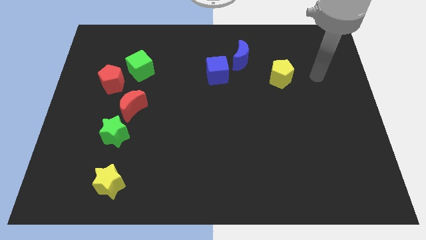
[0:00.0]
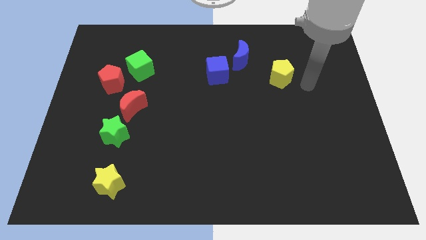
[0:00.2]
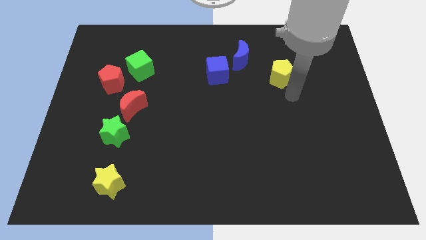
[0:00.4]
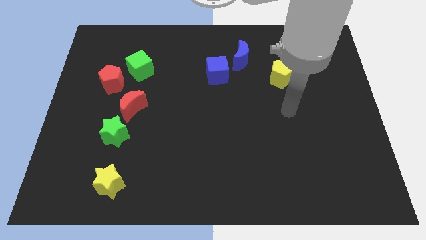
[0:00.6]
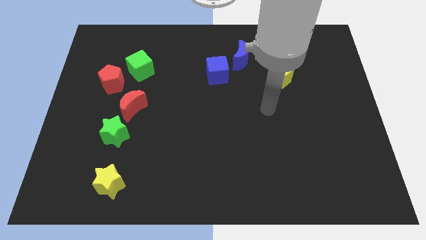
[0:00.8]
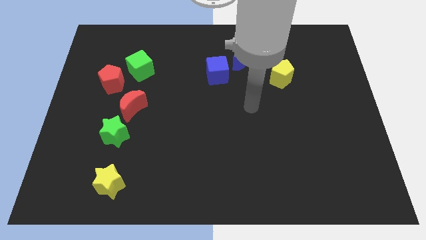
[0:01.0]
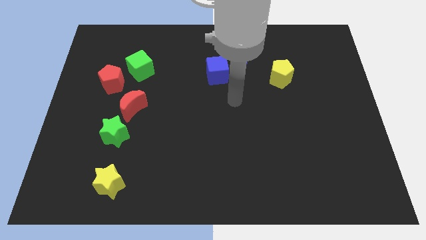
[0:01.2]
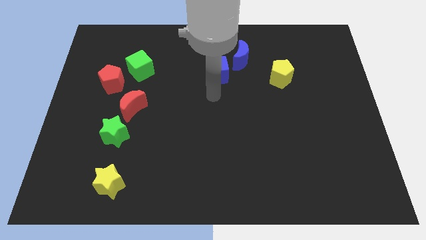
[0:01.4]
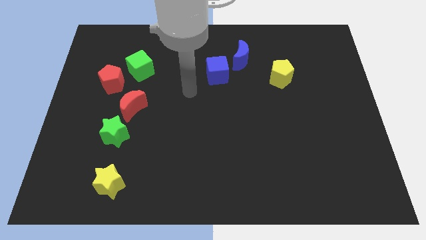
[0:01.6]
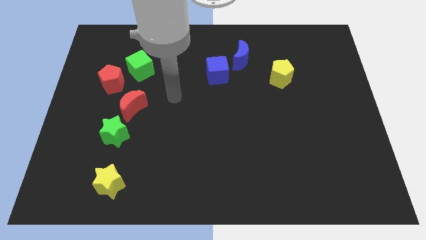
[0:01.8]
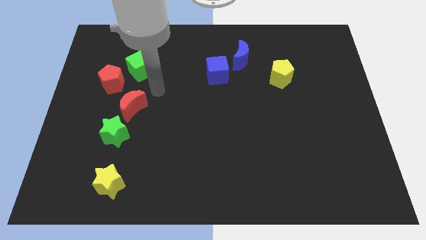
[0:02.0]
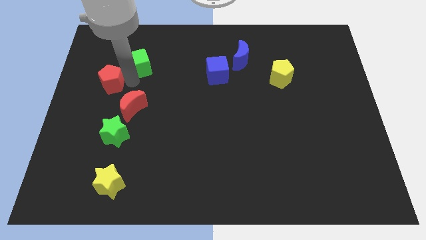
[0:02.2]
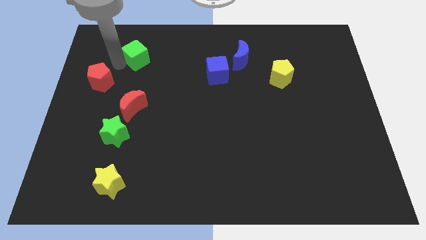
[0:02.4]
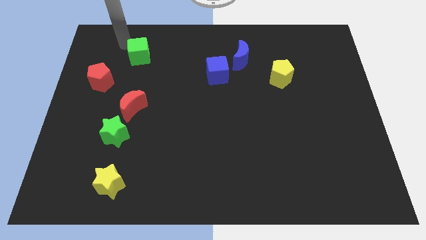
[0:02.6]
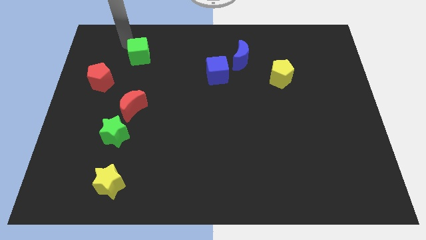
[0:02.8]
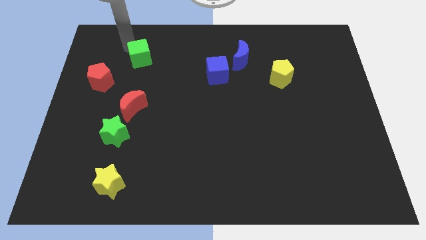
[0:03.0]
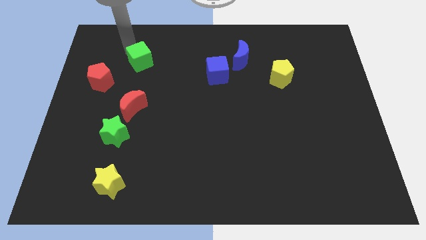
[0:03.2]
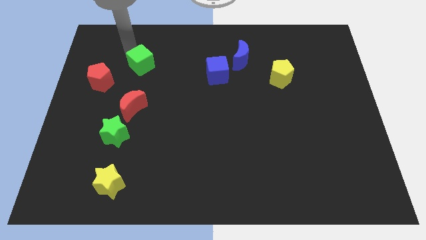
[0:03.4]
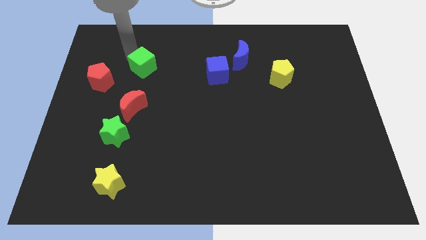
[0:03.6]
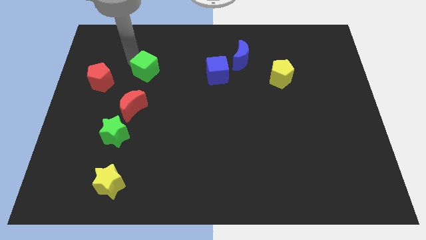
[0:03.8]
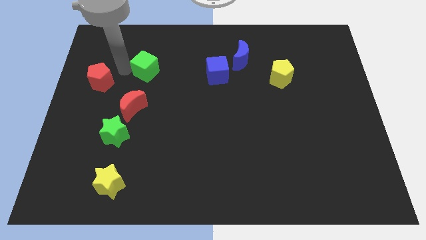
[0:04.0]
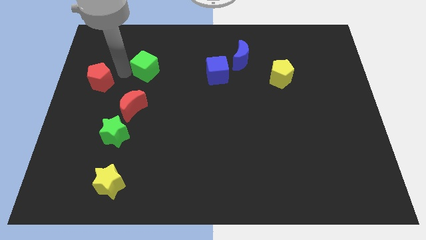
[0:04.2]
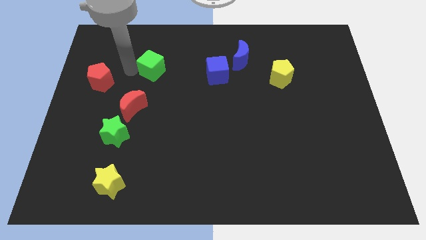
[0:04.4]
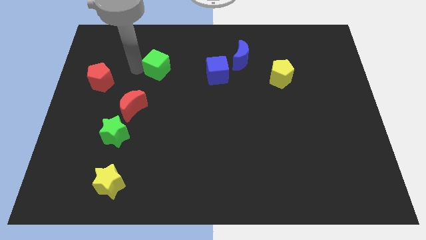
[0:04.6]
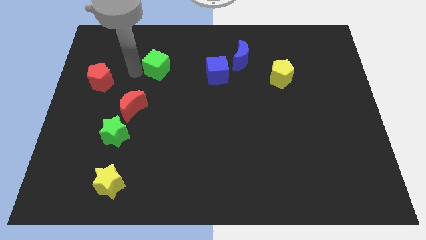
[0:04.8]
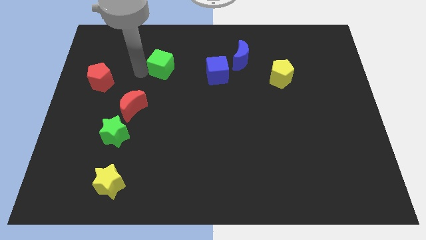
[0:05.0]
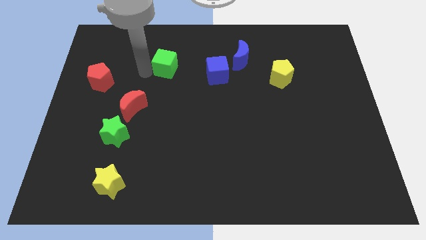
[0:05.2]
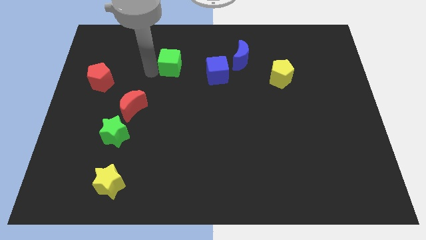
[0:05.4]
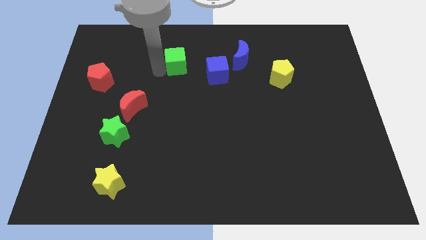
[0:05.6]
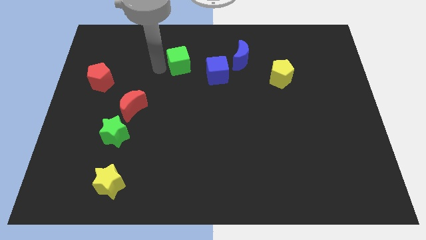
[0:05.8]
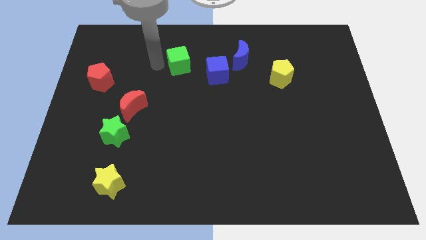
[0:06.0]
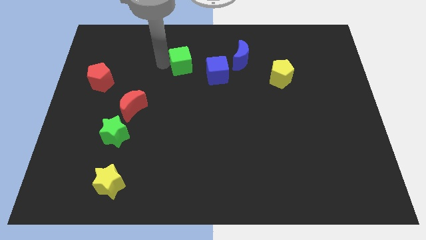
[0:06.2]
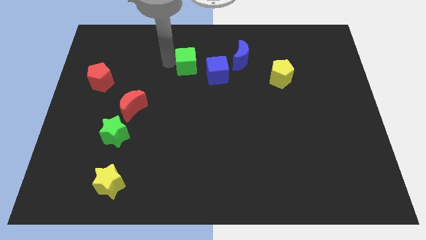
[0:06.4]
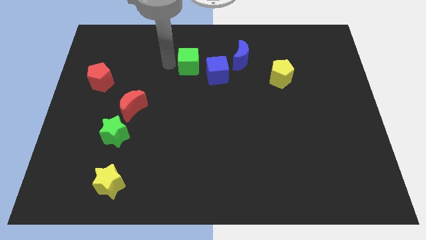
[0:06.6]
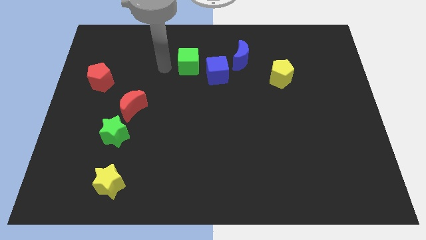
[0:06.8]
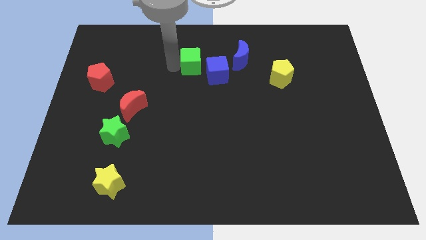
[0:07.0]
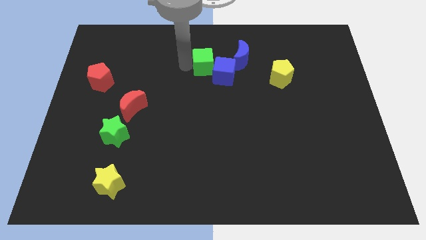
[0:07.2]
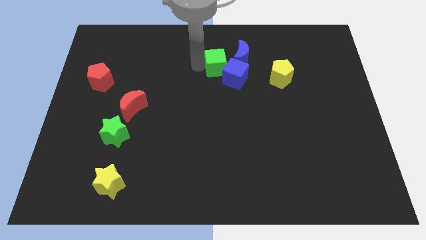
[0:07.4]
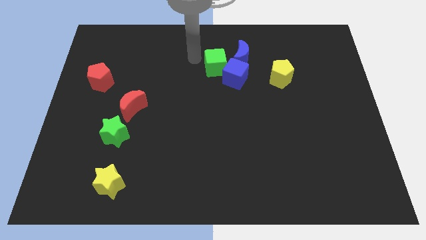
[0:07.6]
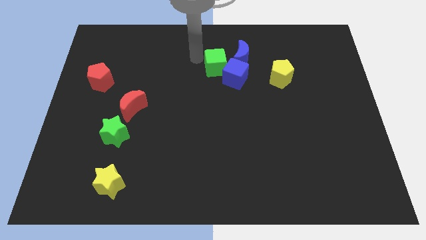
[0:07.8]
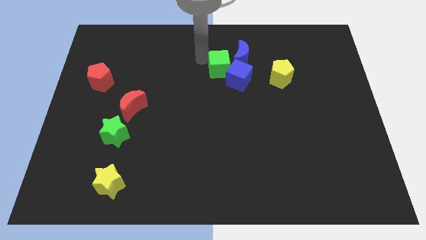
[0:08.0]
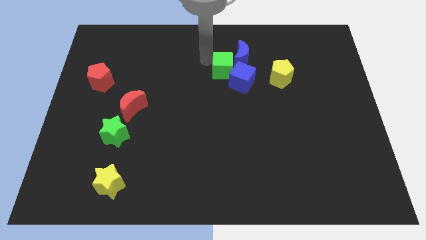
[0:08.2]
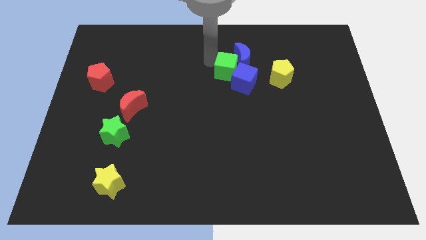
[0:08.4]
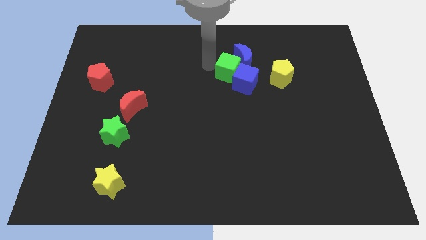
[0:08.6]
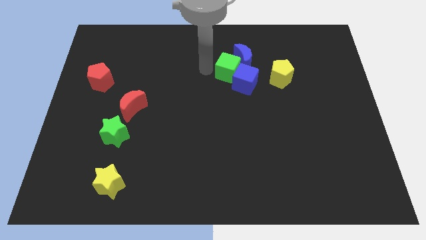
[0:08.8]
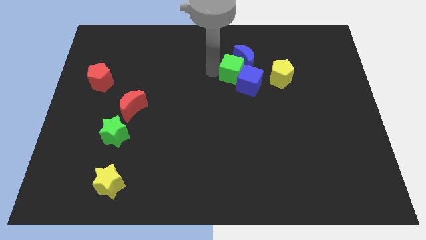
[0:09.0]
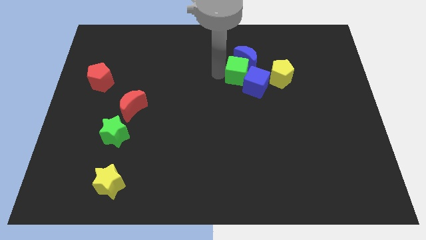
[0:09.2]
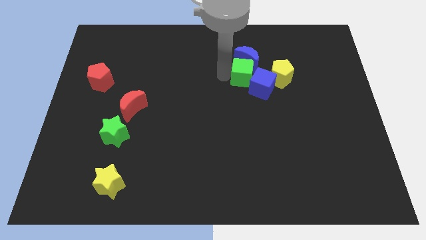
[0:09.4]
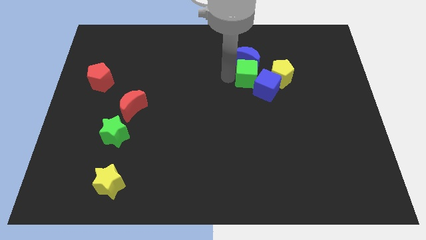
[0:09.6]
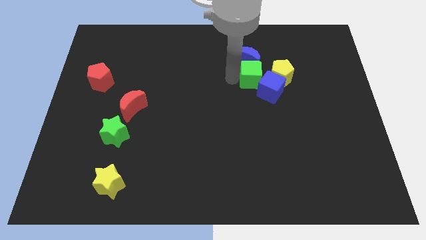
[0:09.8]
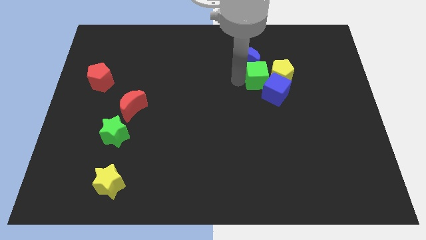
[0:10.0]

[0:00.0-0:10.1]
push the green cube towards the yellow pentagon

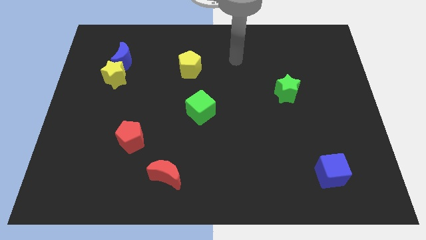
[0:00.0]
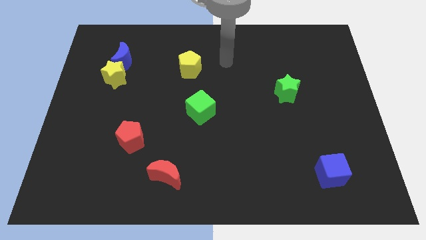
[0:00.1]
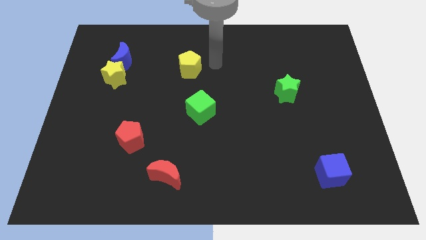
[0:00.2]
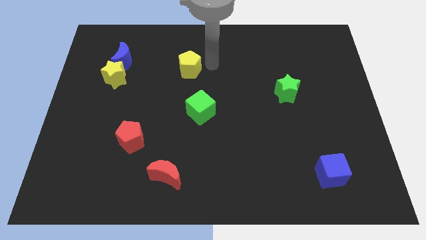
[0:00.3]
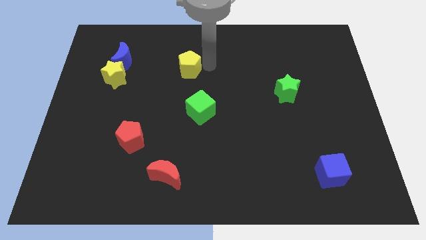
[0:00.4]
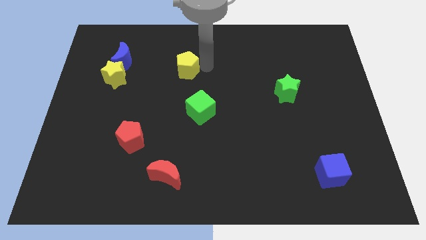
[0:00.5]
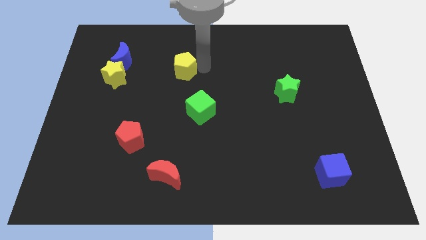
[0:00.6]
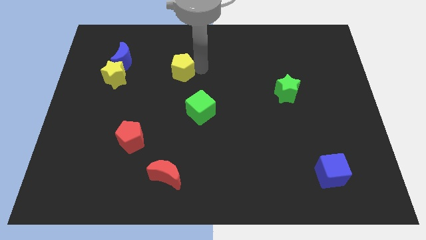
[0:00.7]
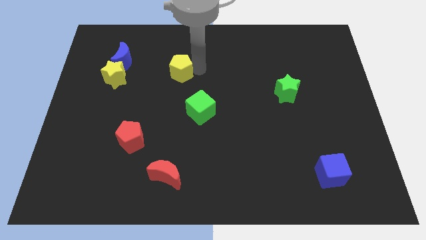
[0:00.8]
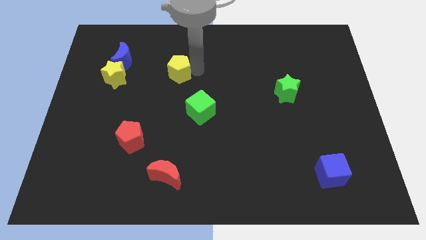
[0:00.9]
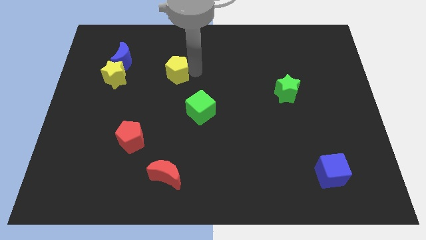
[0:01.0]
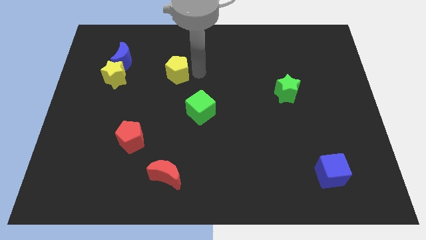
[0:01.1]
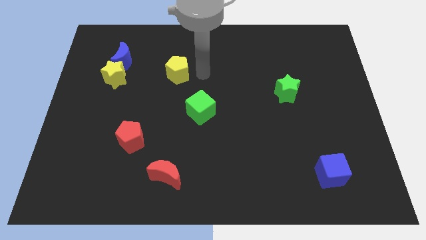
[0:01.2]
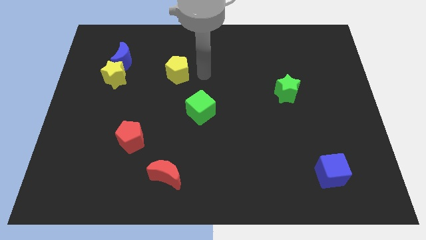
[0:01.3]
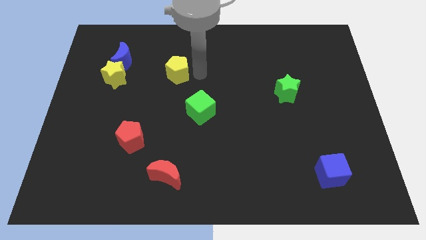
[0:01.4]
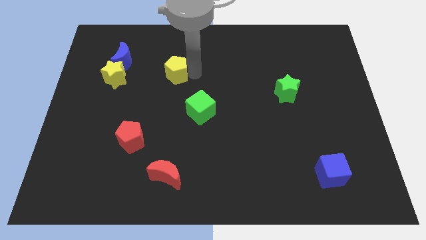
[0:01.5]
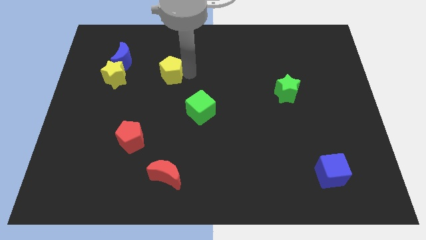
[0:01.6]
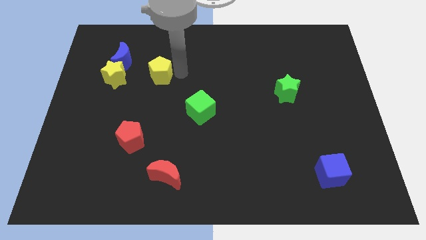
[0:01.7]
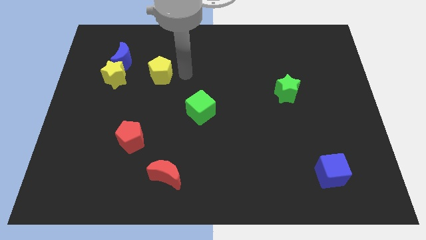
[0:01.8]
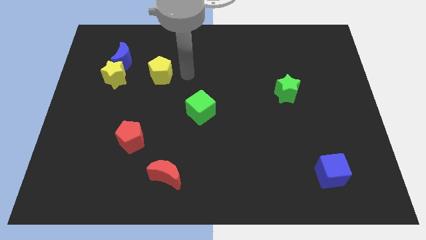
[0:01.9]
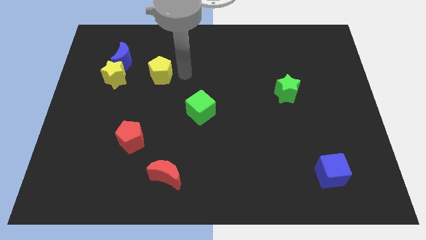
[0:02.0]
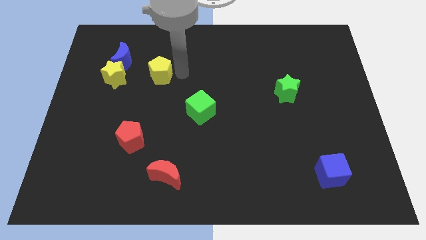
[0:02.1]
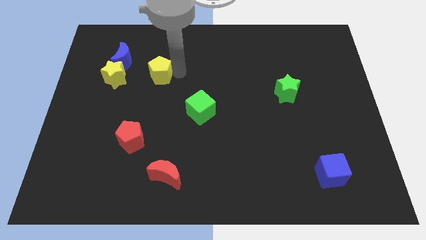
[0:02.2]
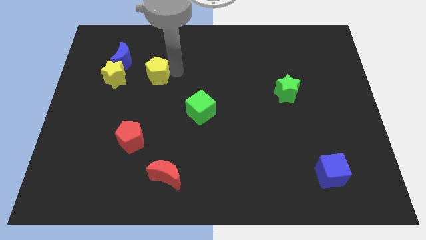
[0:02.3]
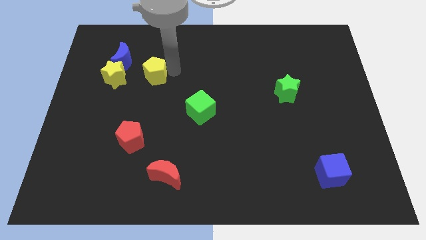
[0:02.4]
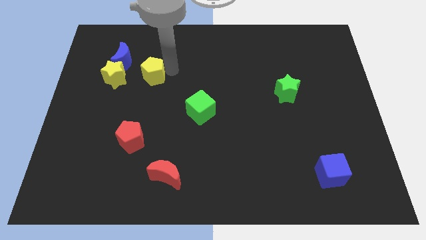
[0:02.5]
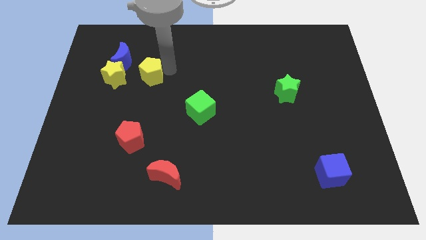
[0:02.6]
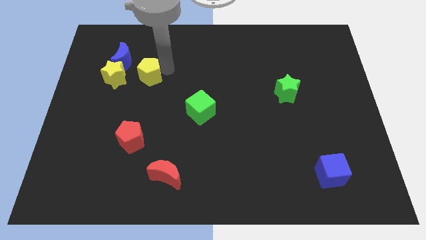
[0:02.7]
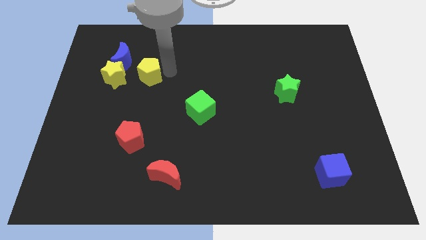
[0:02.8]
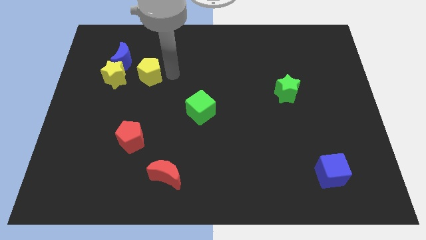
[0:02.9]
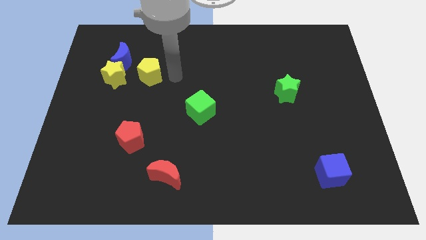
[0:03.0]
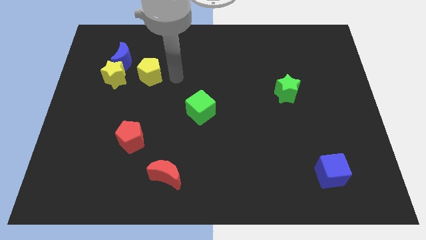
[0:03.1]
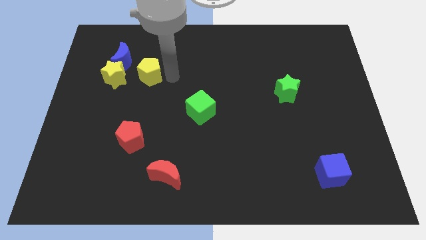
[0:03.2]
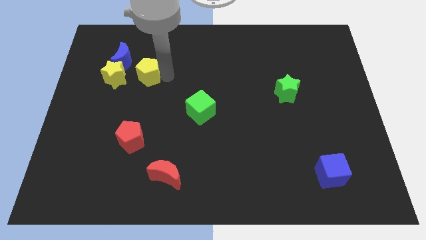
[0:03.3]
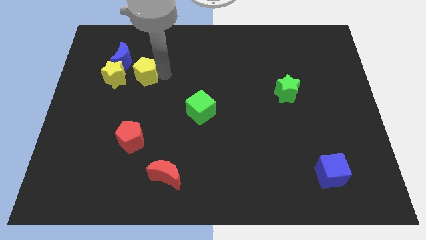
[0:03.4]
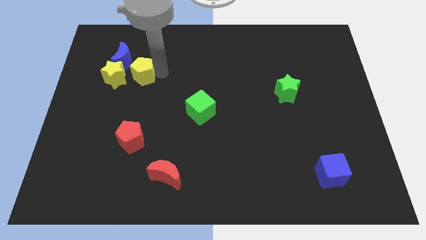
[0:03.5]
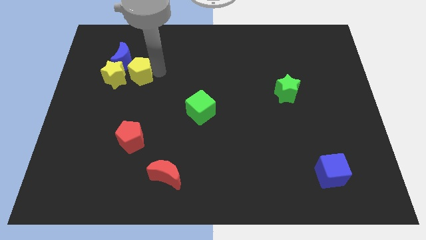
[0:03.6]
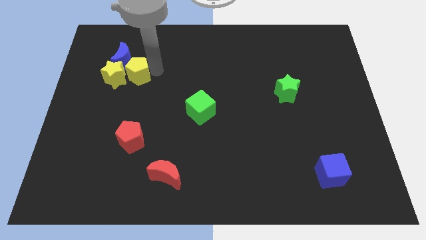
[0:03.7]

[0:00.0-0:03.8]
slide the yellow pentagon close to the yellow star
